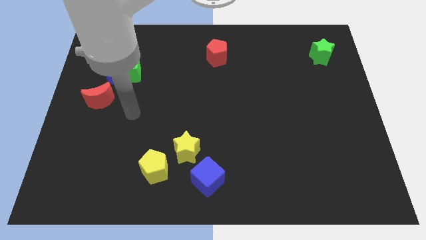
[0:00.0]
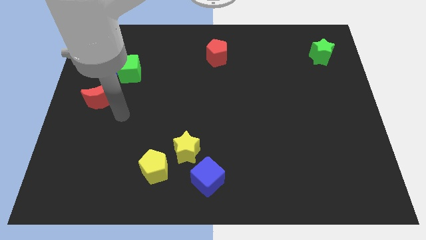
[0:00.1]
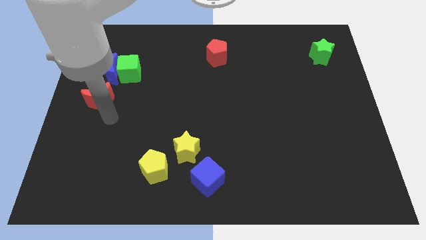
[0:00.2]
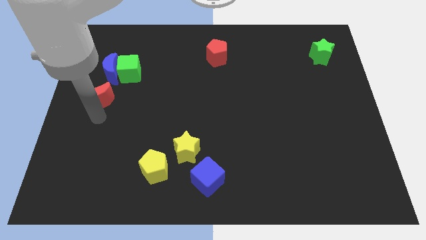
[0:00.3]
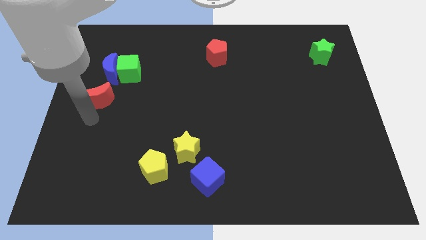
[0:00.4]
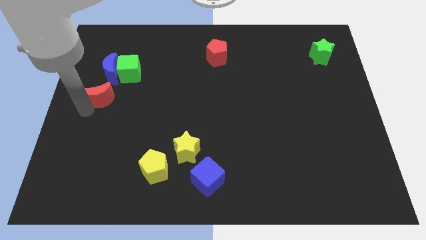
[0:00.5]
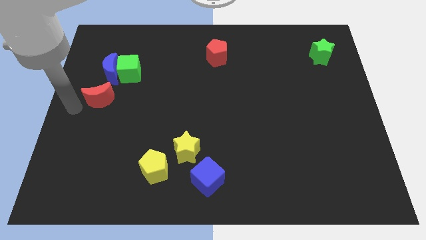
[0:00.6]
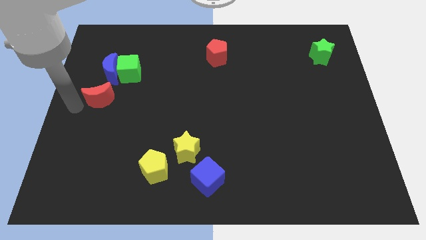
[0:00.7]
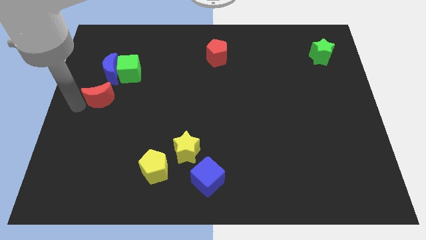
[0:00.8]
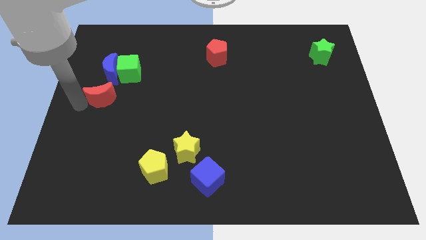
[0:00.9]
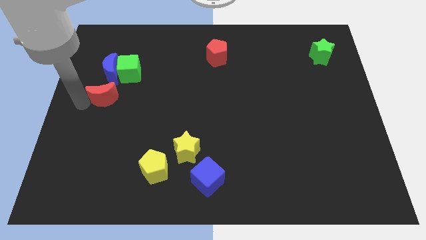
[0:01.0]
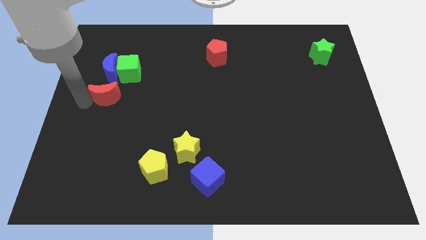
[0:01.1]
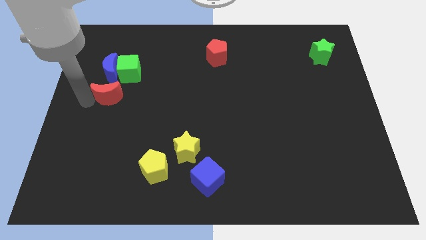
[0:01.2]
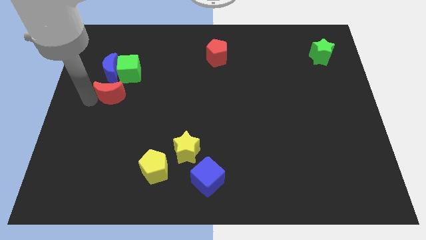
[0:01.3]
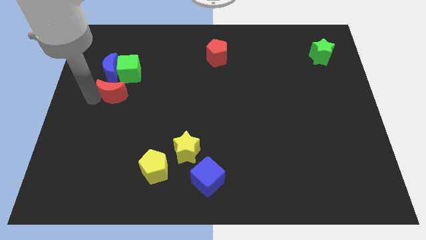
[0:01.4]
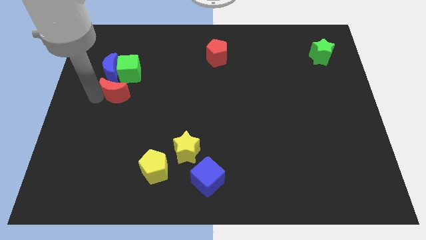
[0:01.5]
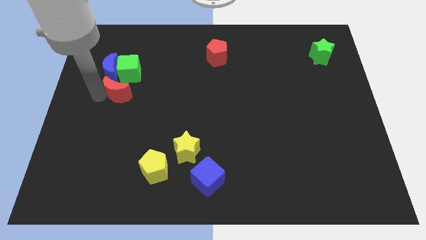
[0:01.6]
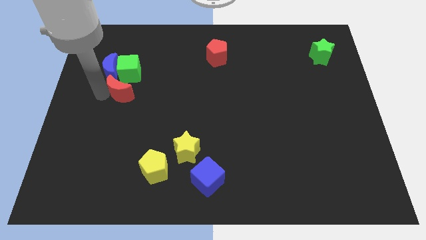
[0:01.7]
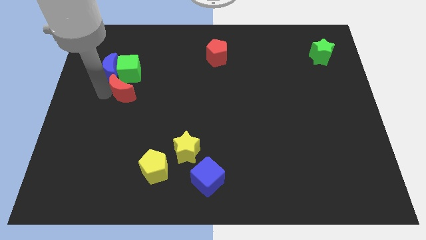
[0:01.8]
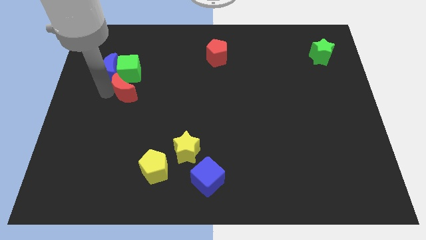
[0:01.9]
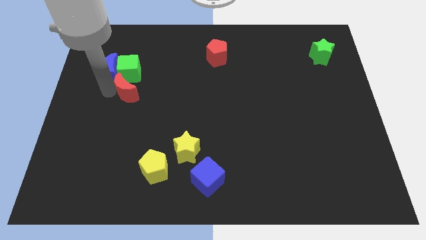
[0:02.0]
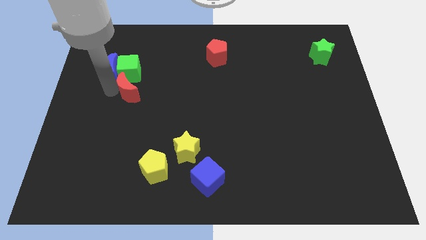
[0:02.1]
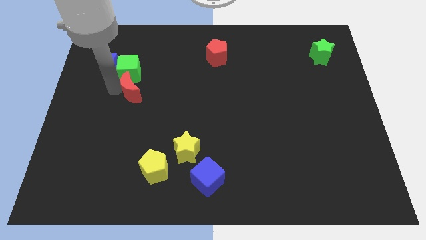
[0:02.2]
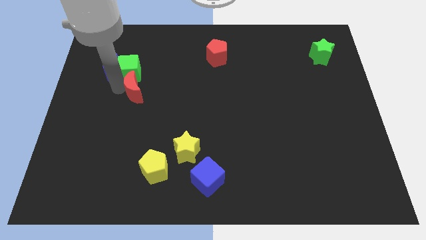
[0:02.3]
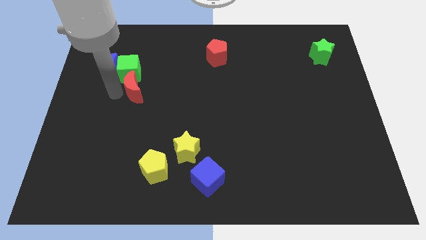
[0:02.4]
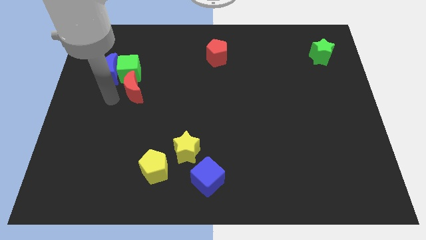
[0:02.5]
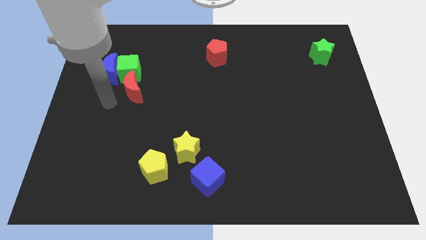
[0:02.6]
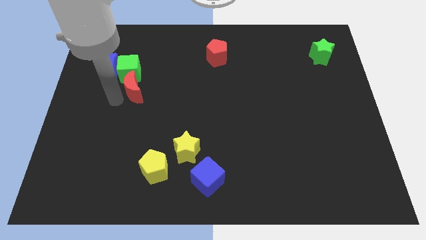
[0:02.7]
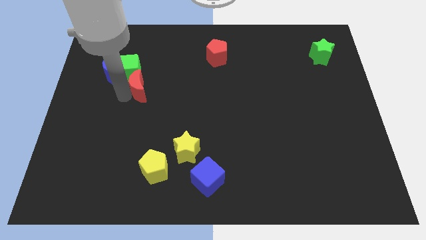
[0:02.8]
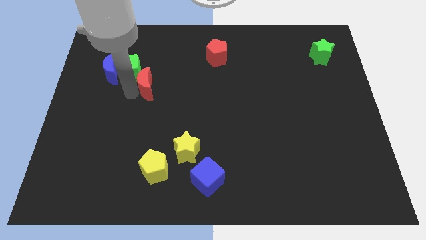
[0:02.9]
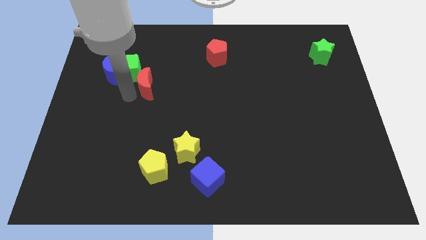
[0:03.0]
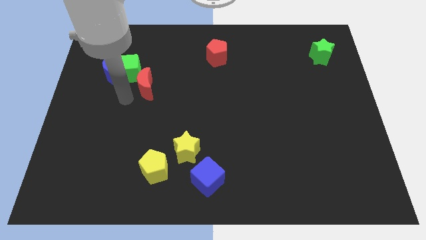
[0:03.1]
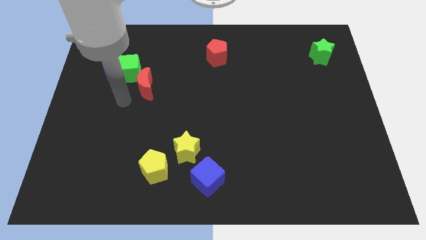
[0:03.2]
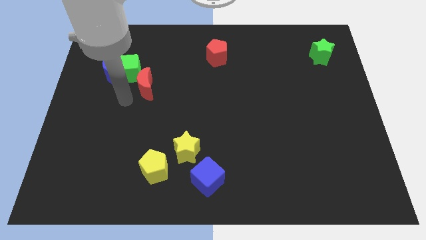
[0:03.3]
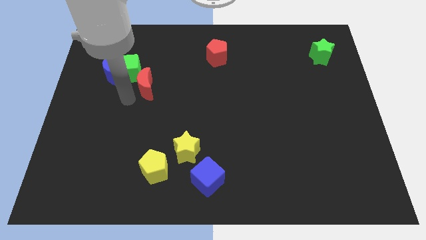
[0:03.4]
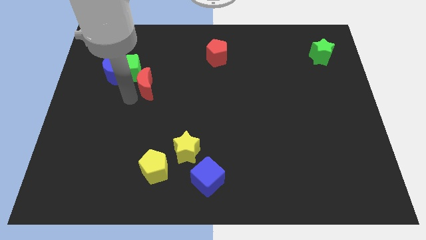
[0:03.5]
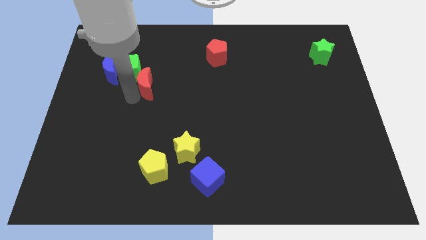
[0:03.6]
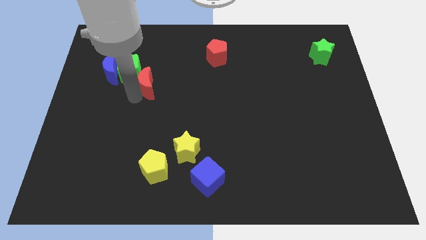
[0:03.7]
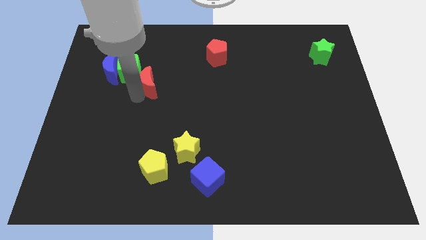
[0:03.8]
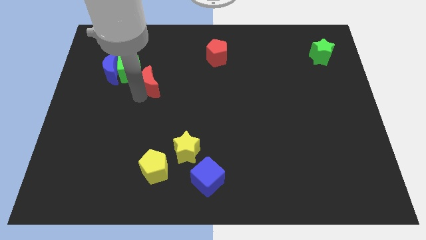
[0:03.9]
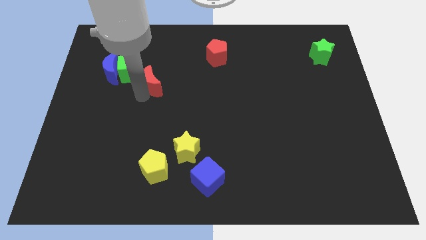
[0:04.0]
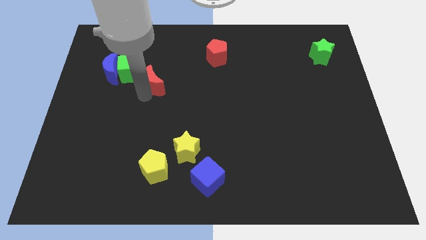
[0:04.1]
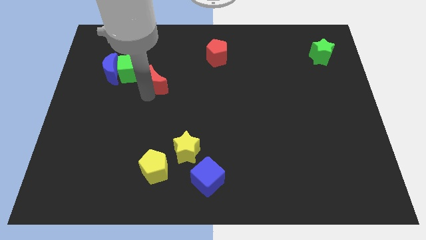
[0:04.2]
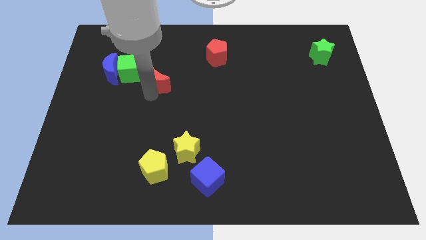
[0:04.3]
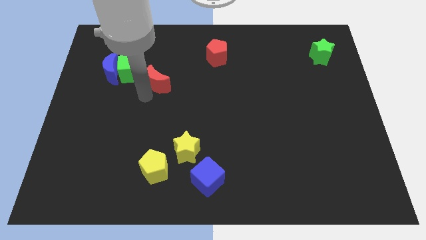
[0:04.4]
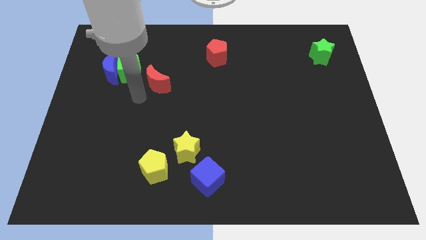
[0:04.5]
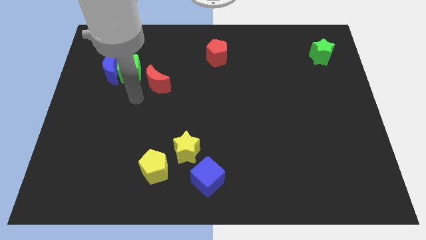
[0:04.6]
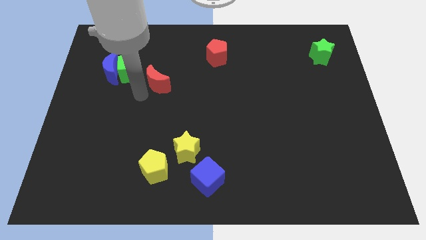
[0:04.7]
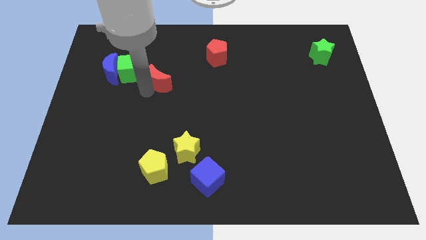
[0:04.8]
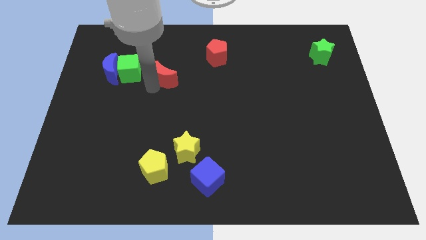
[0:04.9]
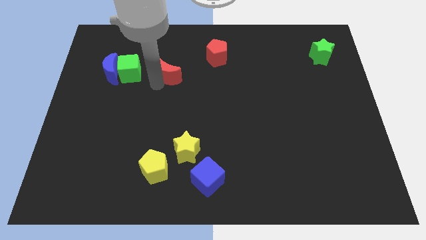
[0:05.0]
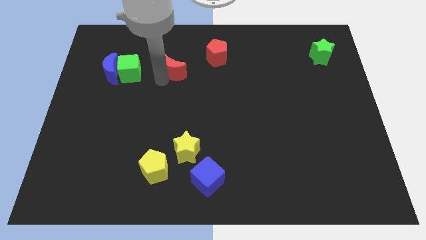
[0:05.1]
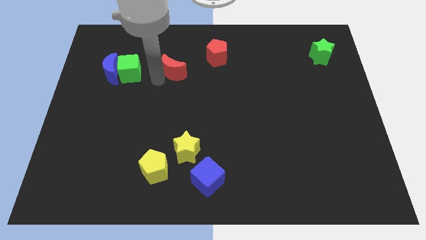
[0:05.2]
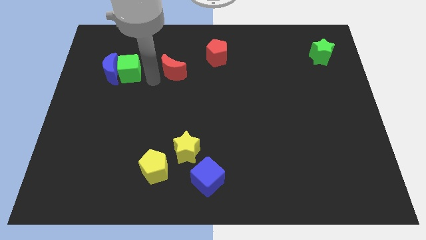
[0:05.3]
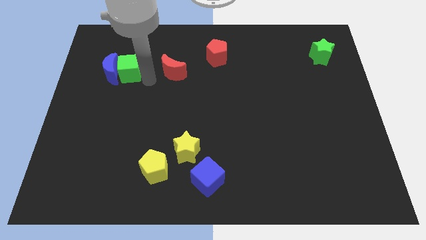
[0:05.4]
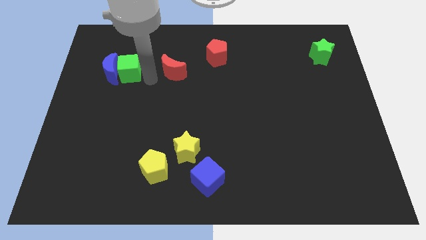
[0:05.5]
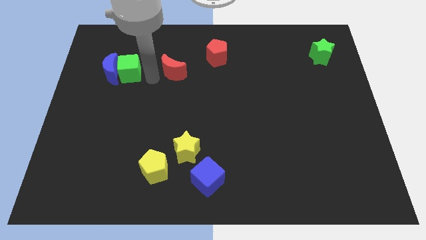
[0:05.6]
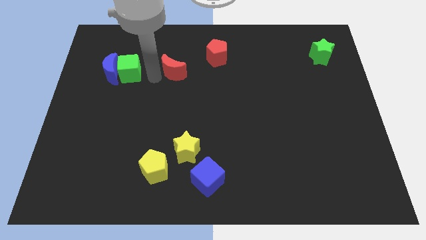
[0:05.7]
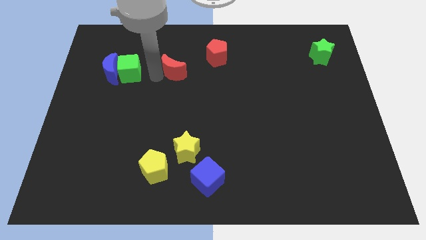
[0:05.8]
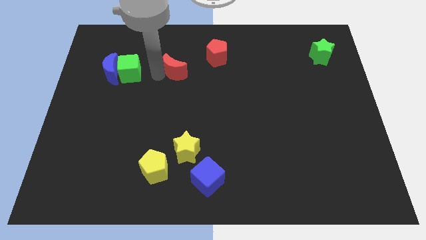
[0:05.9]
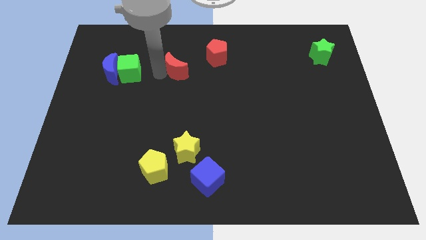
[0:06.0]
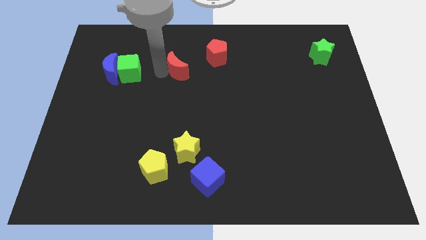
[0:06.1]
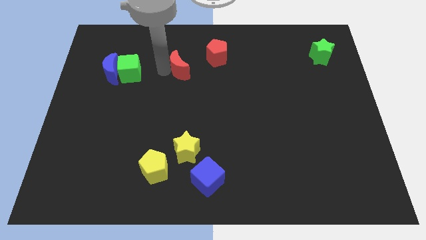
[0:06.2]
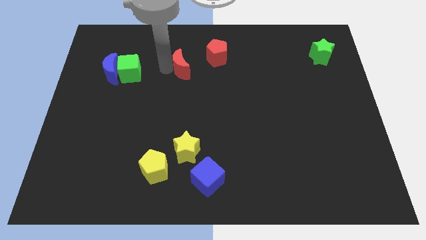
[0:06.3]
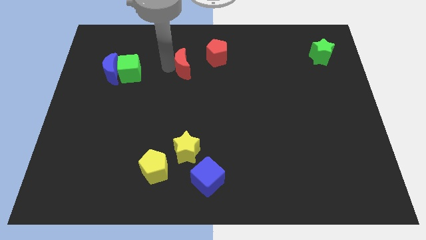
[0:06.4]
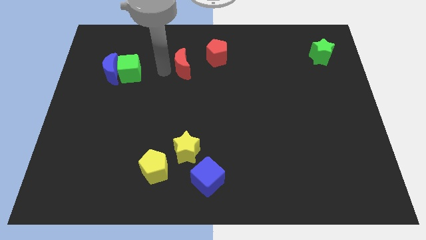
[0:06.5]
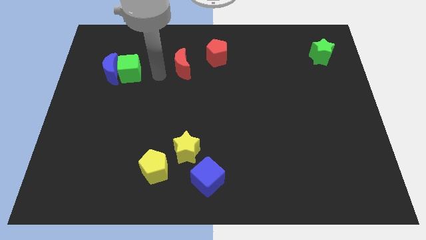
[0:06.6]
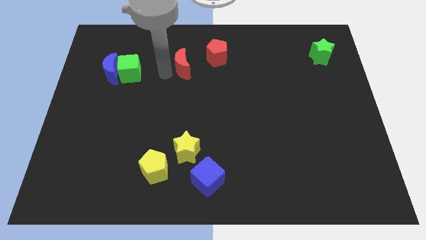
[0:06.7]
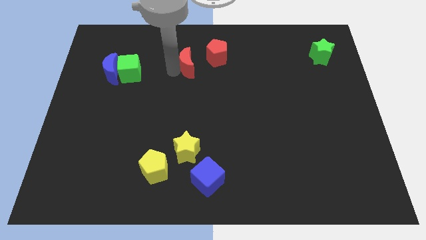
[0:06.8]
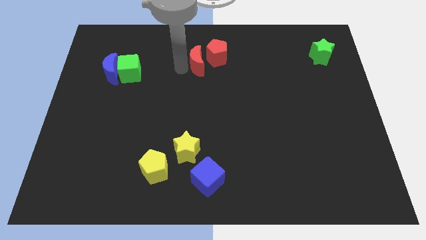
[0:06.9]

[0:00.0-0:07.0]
put the red moon to the red pentagon
